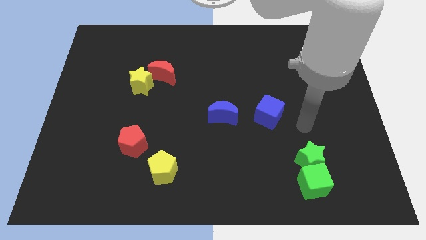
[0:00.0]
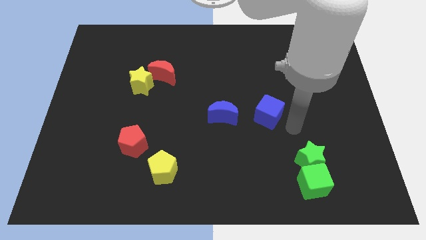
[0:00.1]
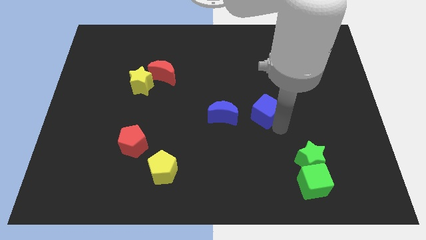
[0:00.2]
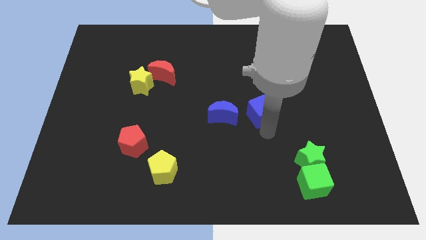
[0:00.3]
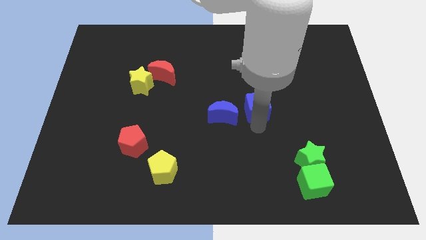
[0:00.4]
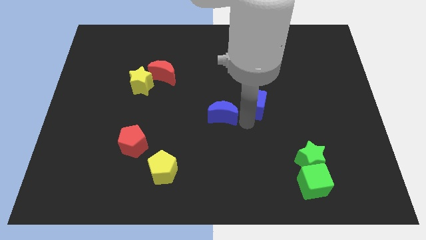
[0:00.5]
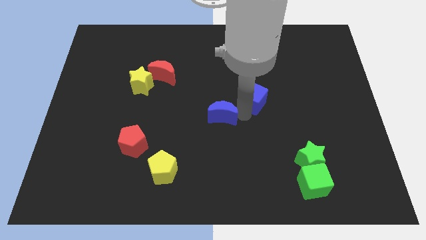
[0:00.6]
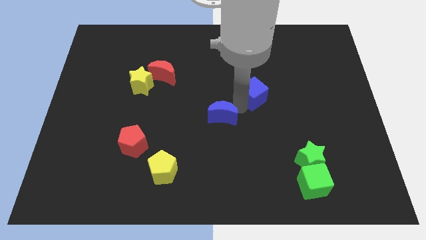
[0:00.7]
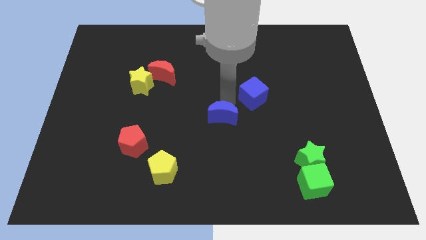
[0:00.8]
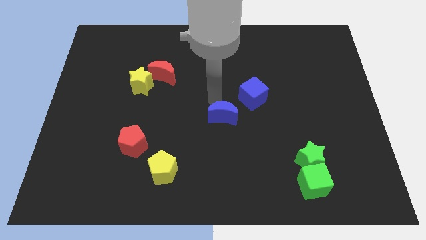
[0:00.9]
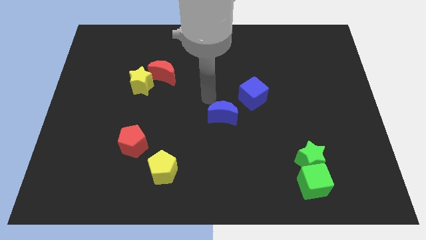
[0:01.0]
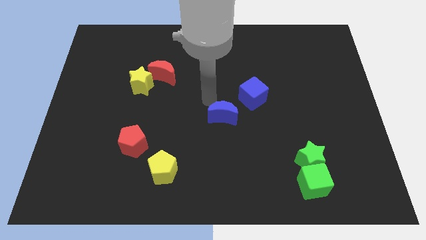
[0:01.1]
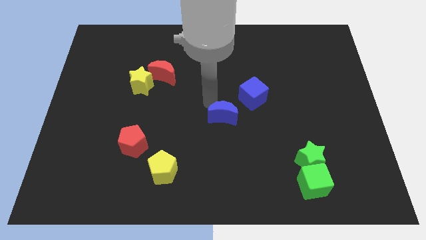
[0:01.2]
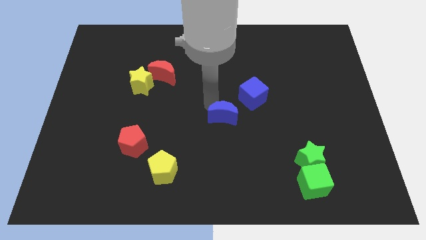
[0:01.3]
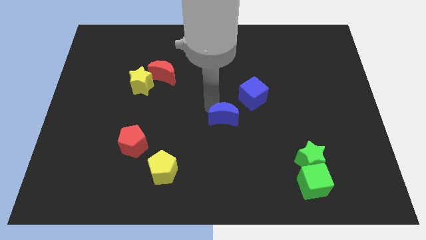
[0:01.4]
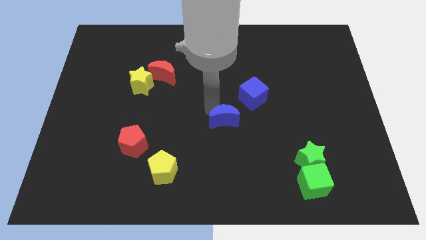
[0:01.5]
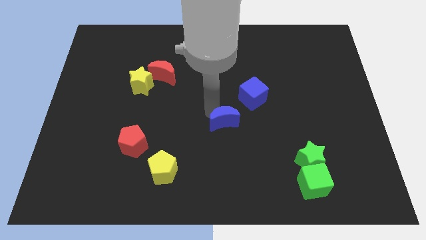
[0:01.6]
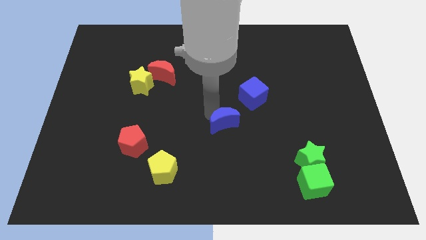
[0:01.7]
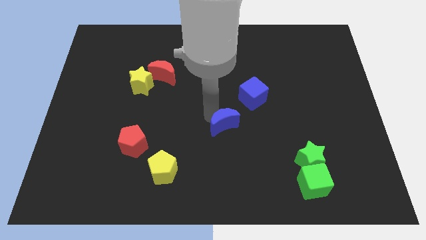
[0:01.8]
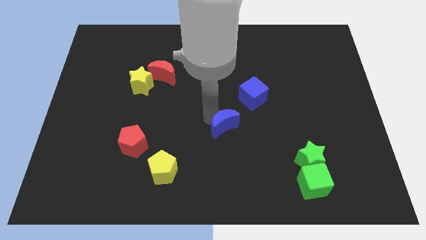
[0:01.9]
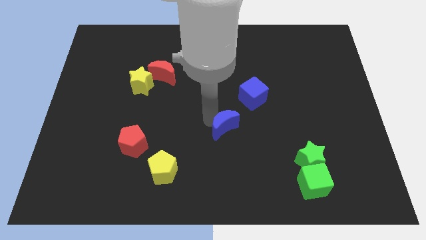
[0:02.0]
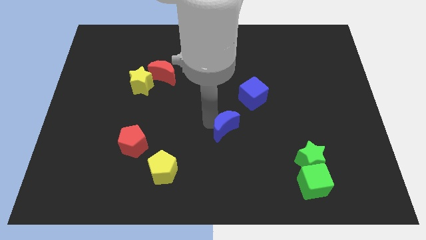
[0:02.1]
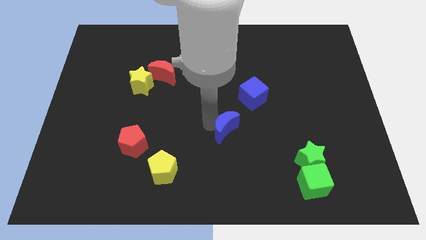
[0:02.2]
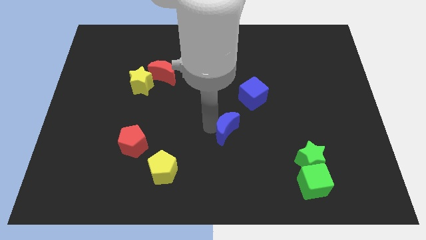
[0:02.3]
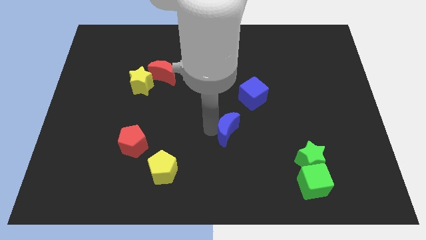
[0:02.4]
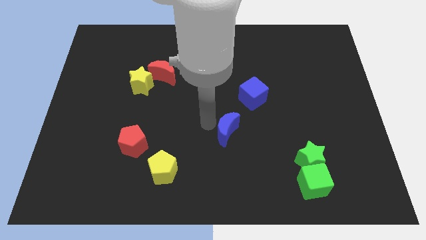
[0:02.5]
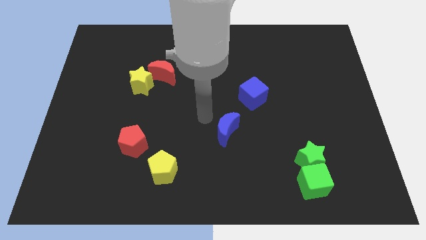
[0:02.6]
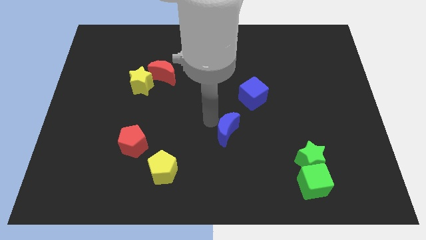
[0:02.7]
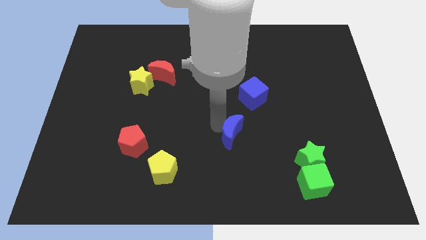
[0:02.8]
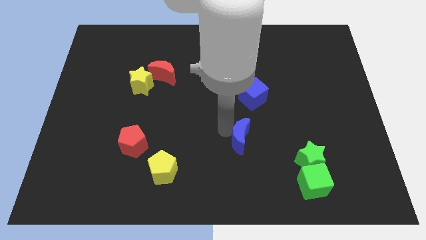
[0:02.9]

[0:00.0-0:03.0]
slide the blue moon a little downwards and right diagonally

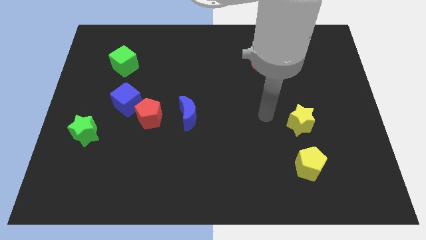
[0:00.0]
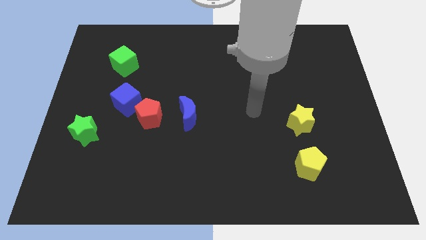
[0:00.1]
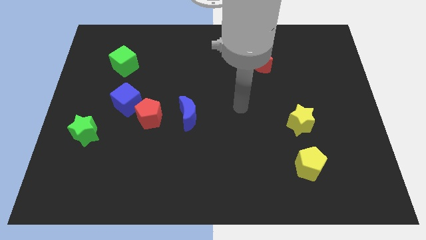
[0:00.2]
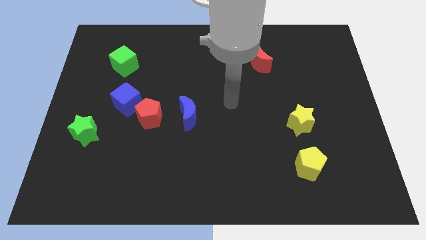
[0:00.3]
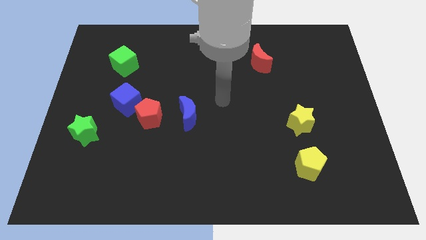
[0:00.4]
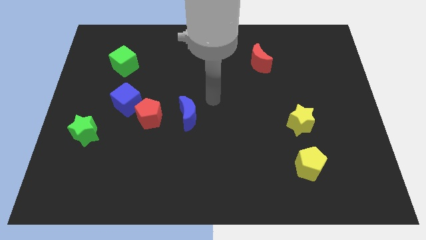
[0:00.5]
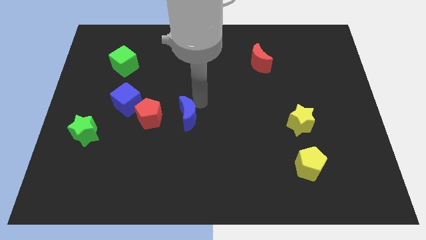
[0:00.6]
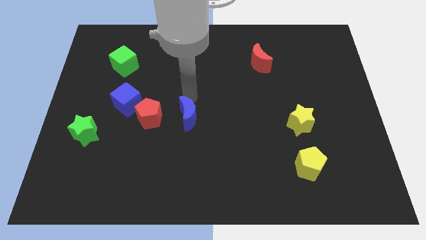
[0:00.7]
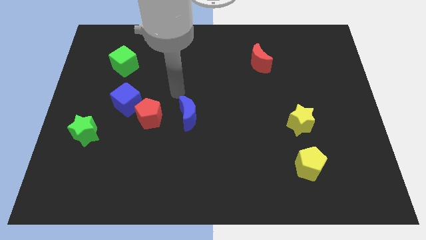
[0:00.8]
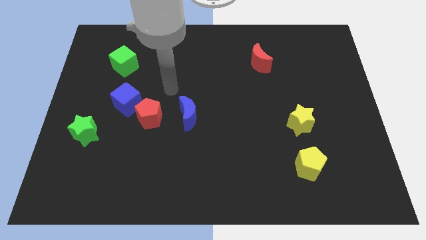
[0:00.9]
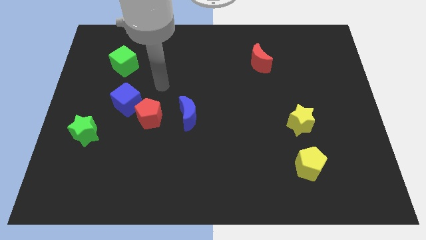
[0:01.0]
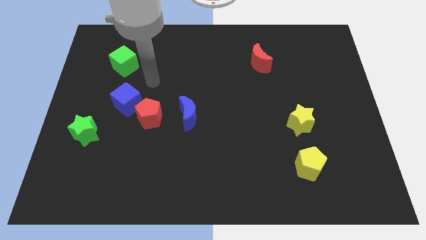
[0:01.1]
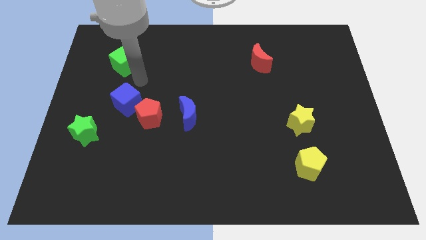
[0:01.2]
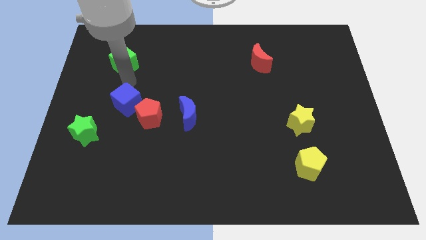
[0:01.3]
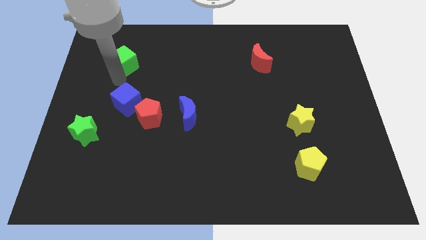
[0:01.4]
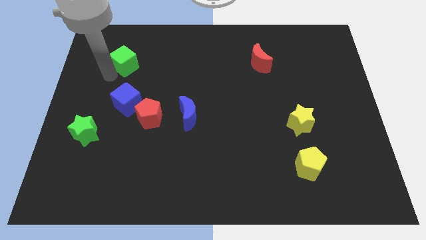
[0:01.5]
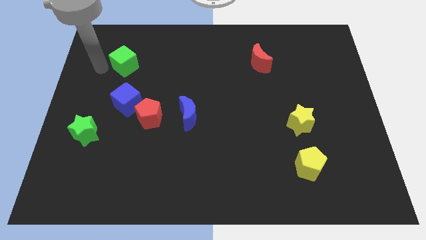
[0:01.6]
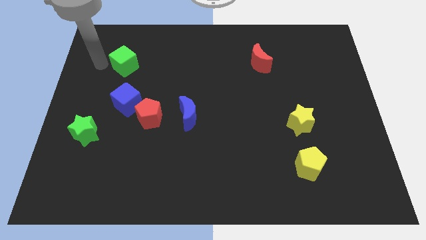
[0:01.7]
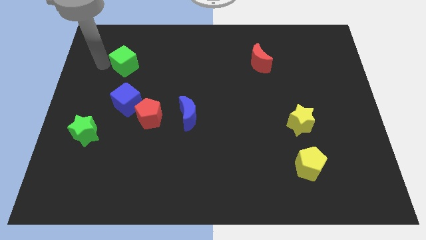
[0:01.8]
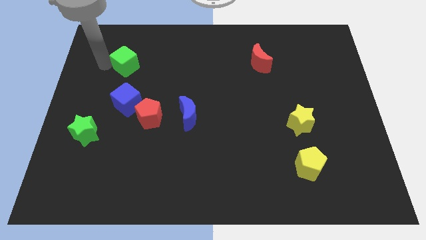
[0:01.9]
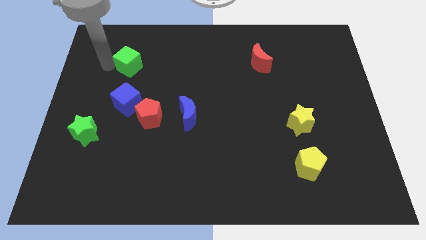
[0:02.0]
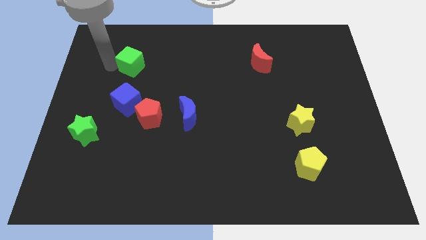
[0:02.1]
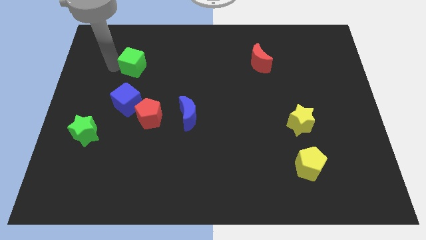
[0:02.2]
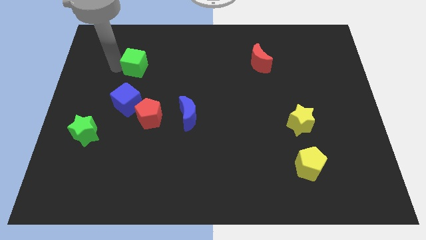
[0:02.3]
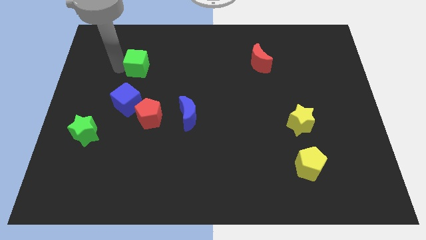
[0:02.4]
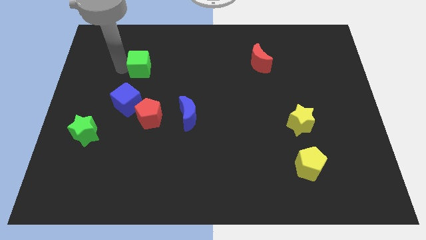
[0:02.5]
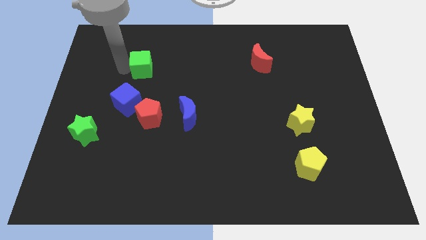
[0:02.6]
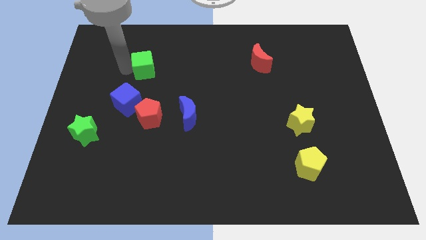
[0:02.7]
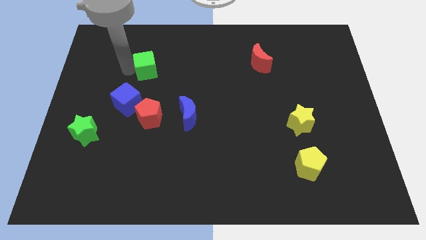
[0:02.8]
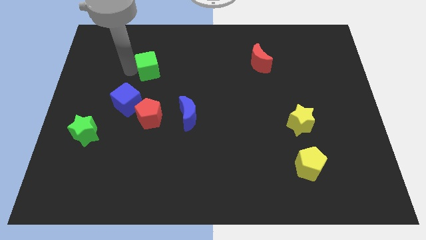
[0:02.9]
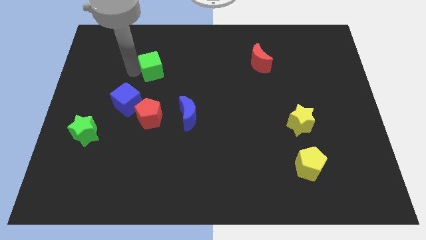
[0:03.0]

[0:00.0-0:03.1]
slightly move the green cube to the right

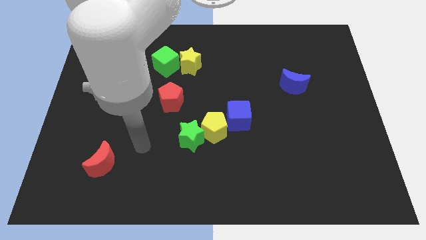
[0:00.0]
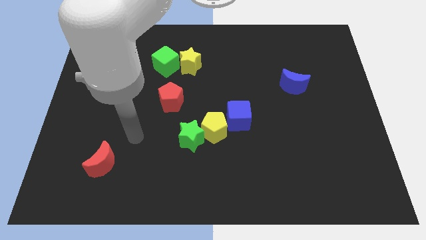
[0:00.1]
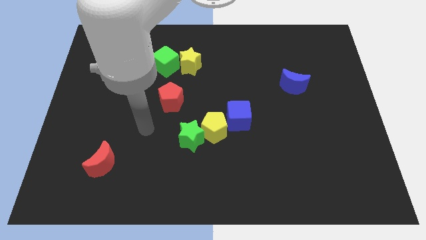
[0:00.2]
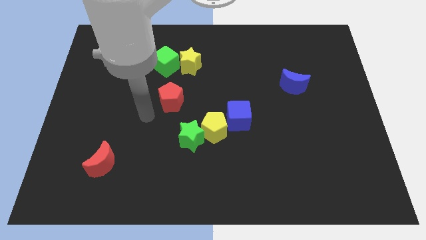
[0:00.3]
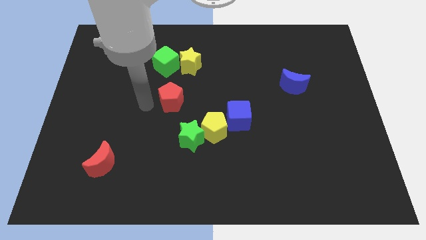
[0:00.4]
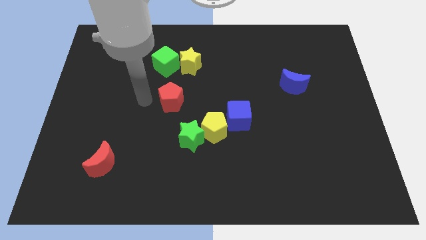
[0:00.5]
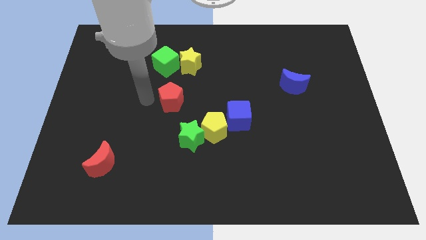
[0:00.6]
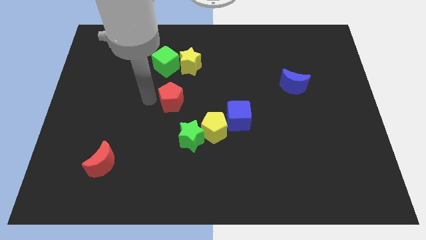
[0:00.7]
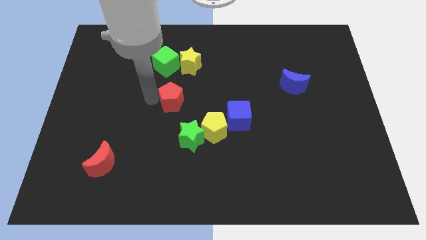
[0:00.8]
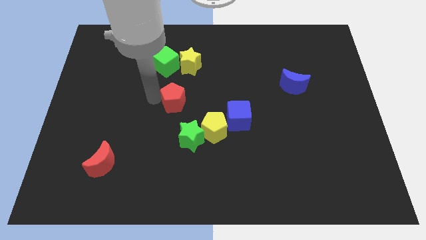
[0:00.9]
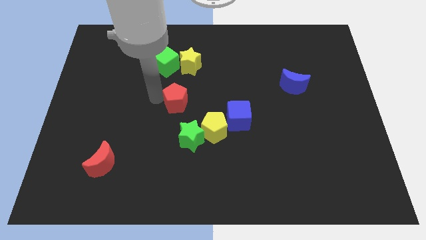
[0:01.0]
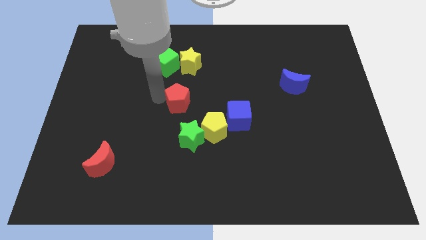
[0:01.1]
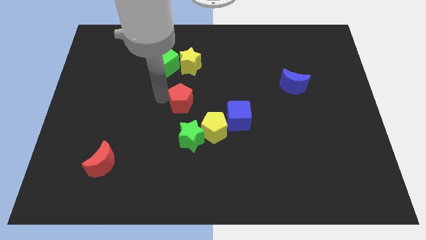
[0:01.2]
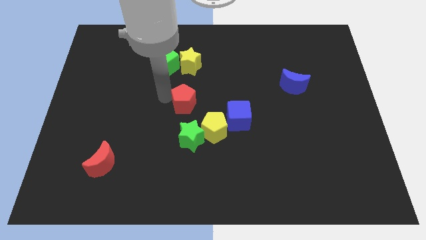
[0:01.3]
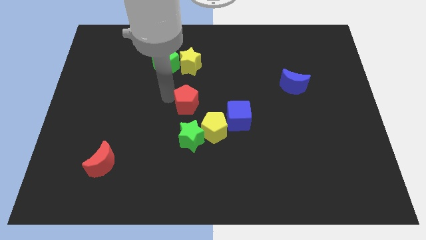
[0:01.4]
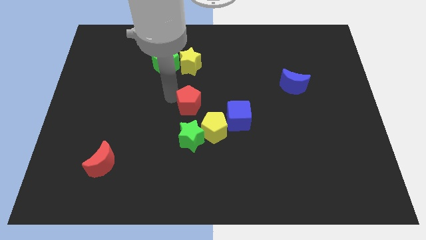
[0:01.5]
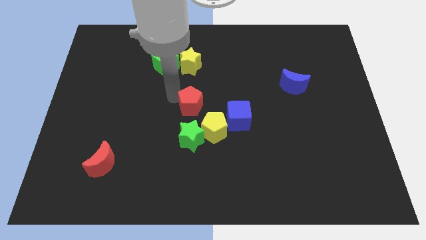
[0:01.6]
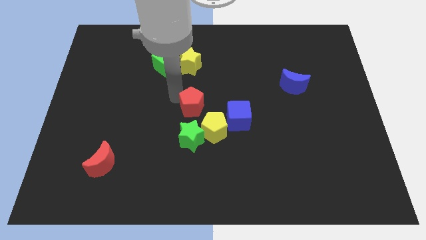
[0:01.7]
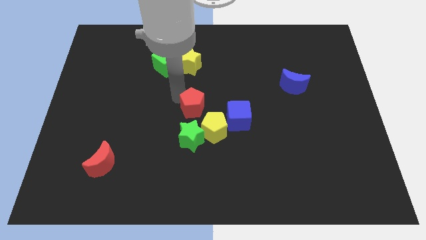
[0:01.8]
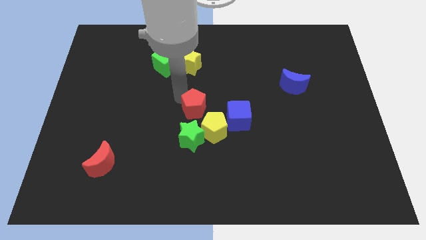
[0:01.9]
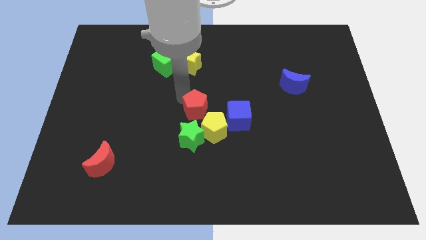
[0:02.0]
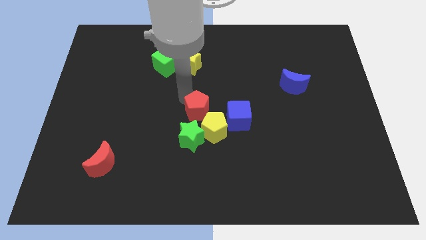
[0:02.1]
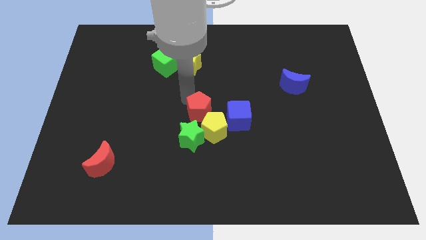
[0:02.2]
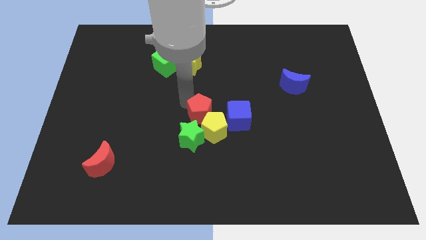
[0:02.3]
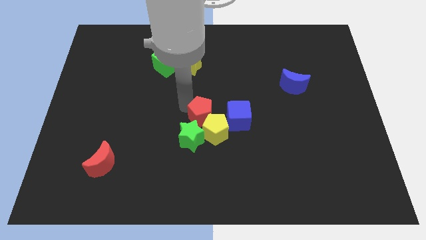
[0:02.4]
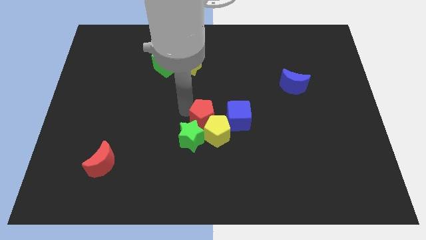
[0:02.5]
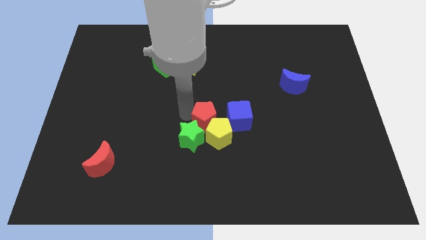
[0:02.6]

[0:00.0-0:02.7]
slide the red pentagon slightly to the right
